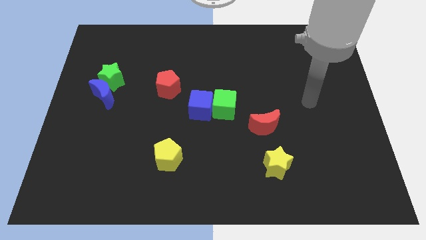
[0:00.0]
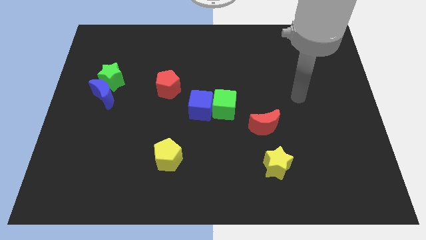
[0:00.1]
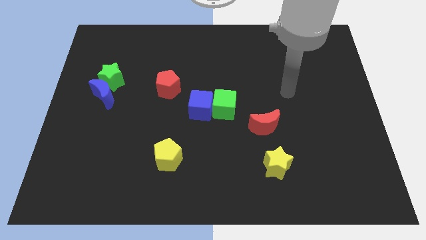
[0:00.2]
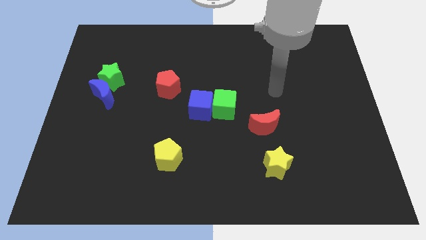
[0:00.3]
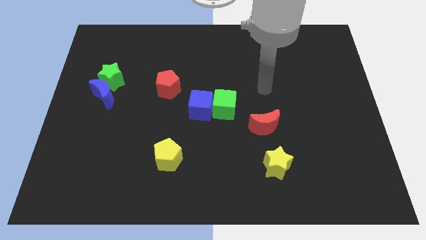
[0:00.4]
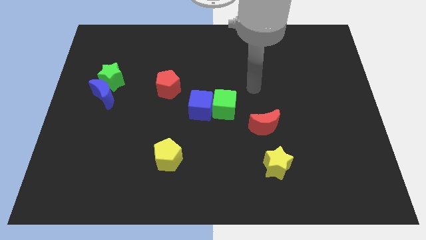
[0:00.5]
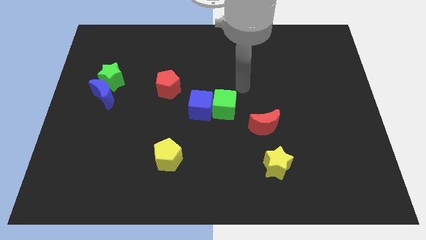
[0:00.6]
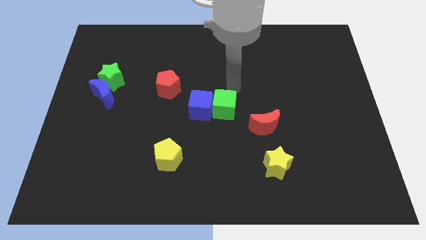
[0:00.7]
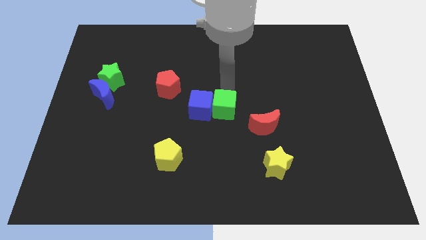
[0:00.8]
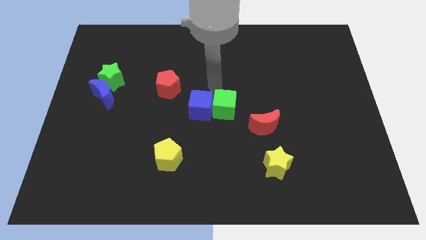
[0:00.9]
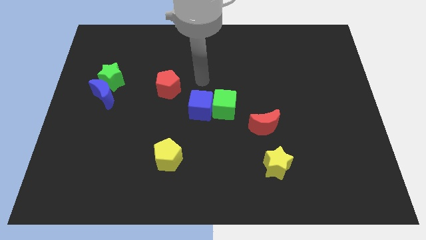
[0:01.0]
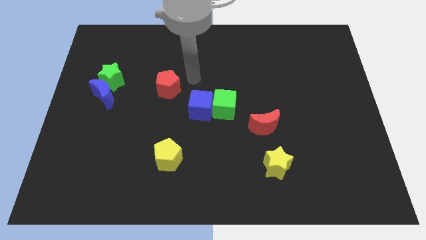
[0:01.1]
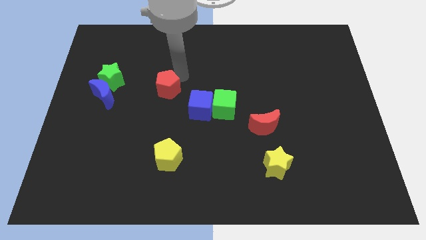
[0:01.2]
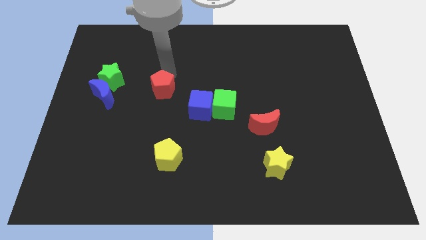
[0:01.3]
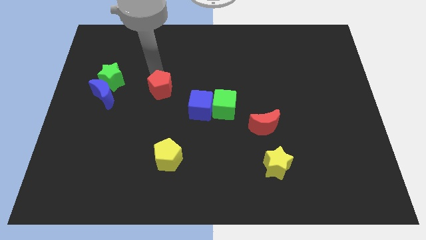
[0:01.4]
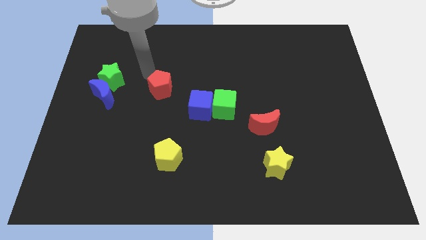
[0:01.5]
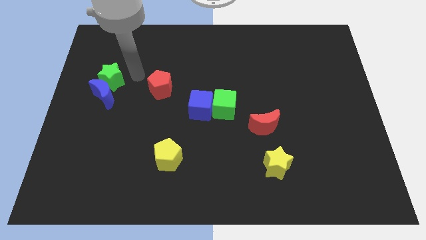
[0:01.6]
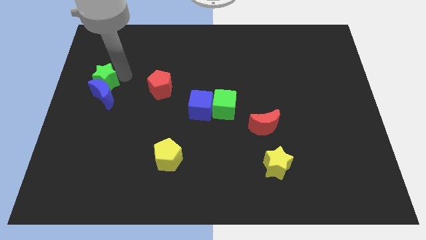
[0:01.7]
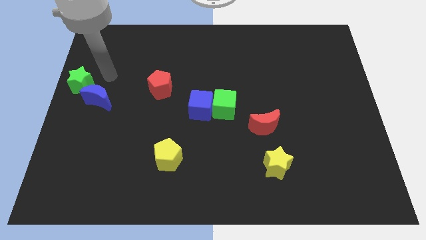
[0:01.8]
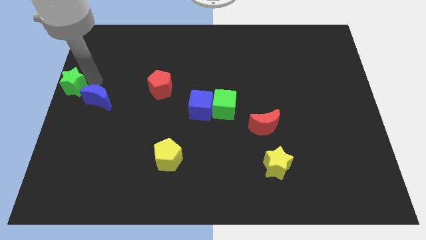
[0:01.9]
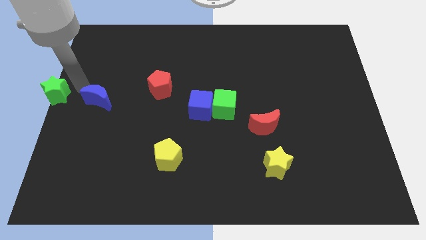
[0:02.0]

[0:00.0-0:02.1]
pull the blue moon apart from the green star

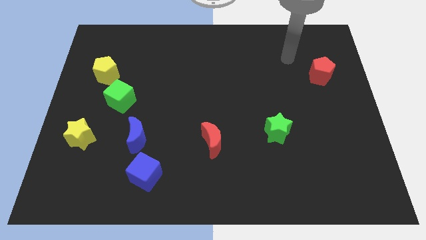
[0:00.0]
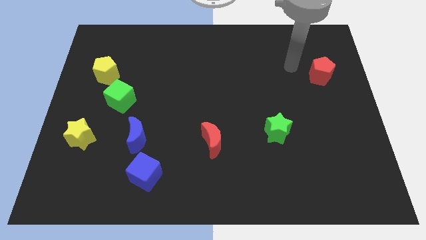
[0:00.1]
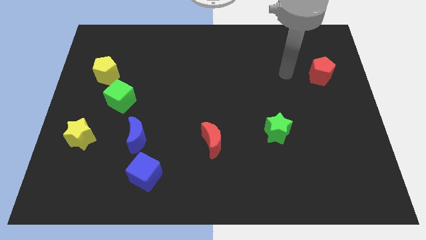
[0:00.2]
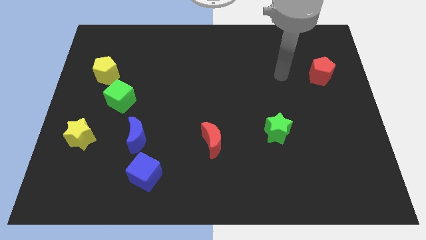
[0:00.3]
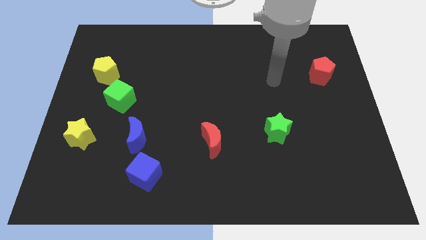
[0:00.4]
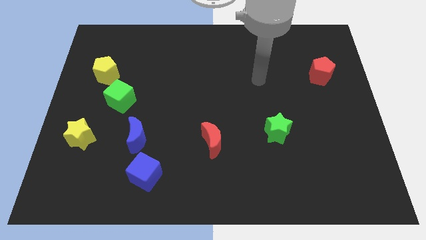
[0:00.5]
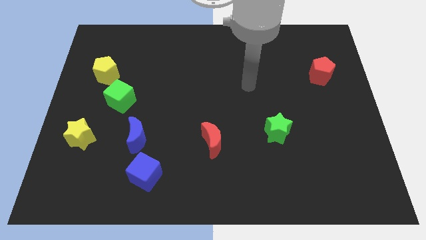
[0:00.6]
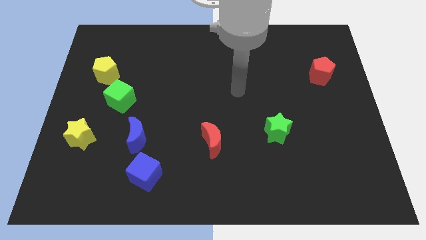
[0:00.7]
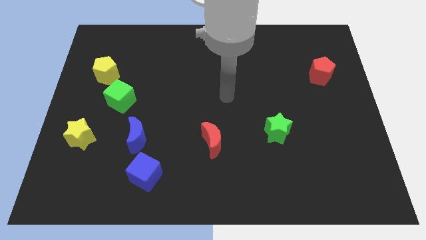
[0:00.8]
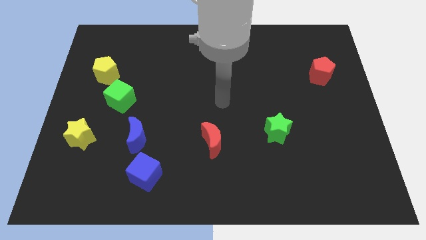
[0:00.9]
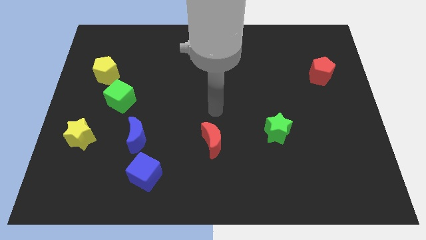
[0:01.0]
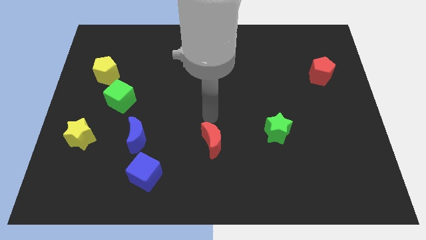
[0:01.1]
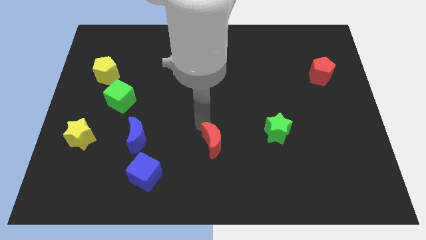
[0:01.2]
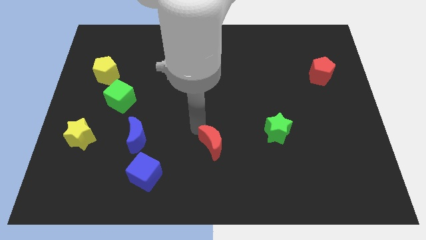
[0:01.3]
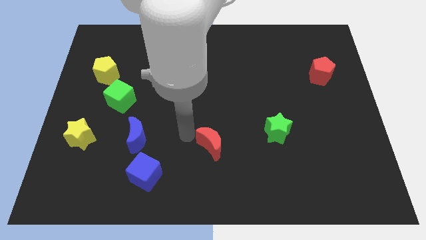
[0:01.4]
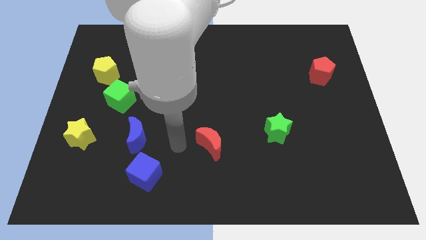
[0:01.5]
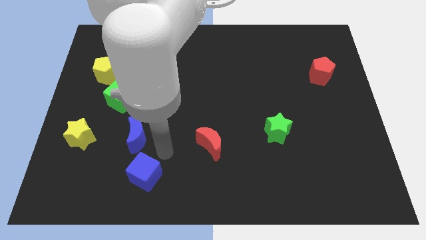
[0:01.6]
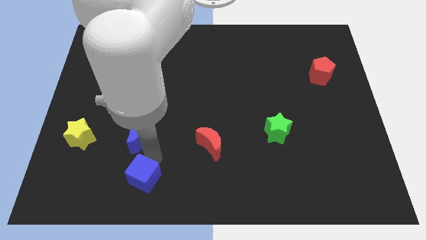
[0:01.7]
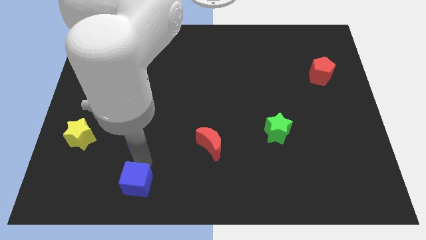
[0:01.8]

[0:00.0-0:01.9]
move the blue moon away from the blue cube

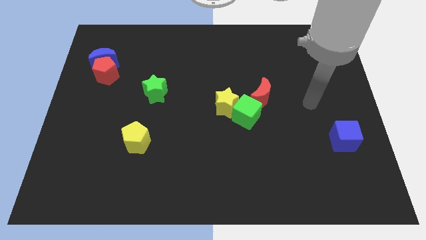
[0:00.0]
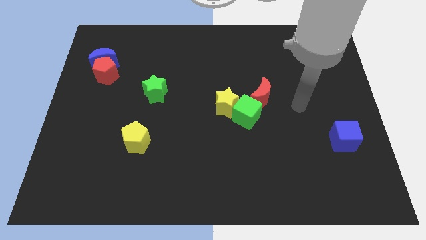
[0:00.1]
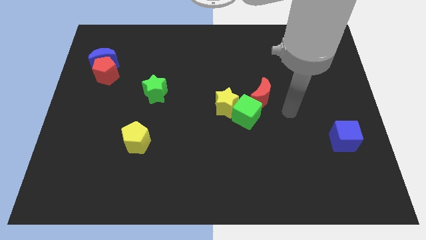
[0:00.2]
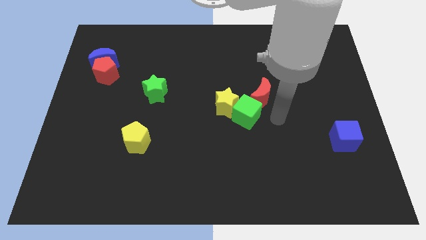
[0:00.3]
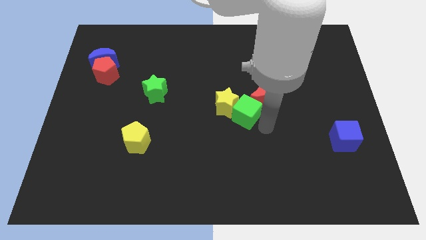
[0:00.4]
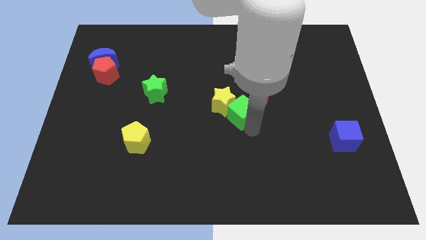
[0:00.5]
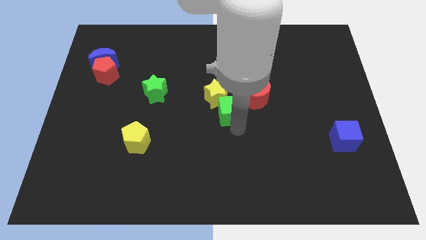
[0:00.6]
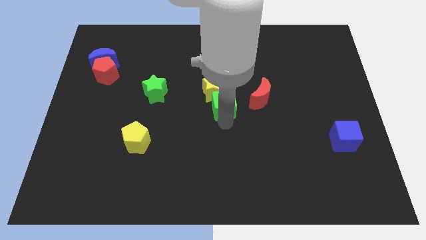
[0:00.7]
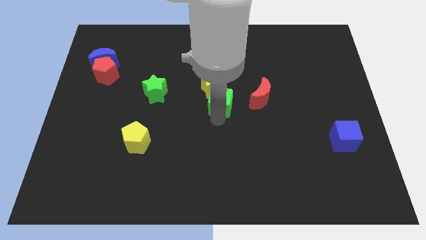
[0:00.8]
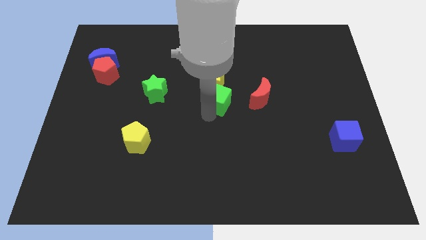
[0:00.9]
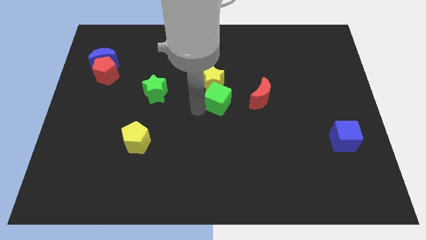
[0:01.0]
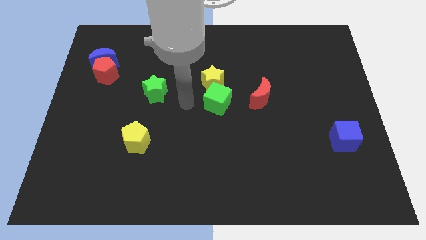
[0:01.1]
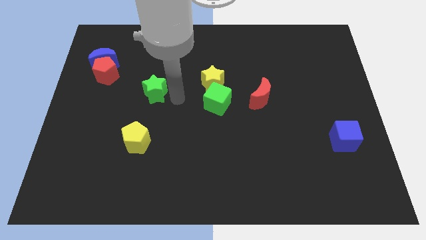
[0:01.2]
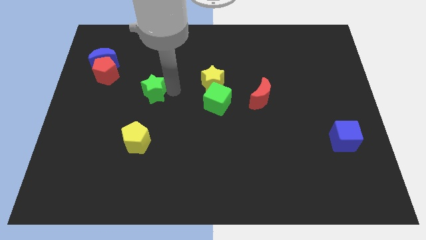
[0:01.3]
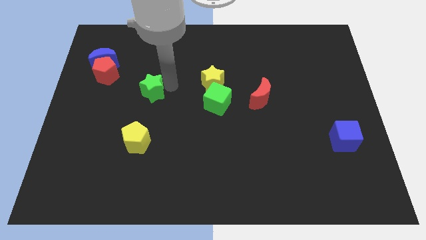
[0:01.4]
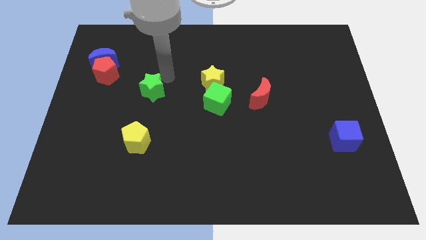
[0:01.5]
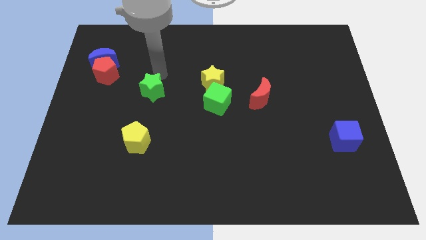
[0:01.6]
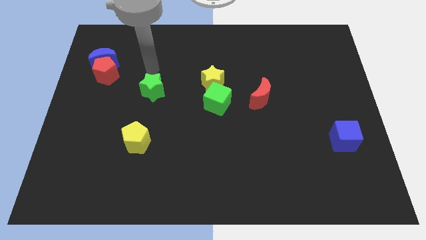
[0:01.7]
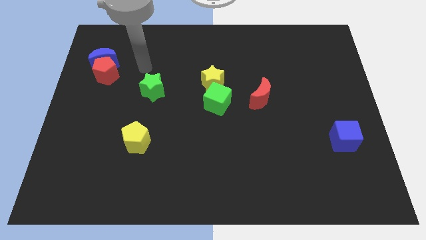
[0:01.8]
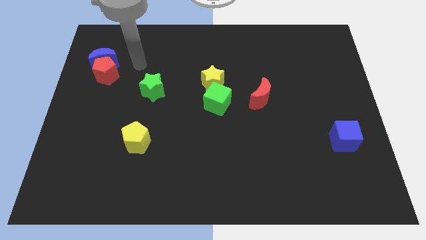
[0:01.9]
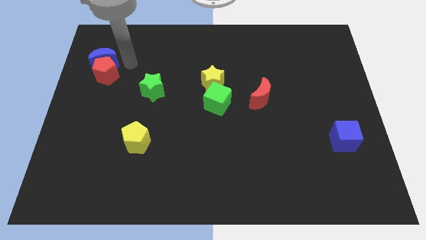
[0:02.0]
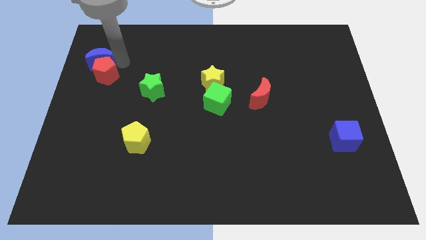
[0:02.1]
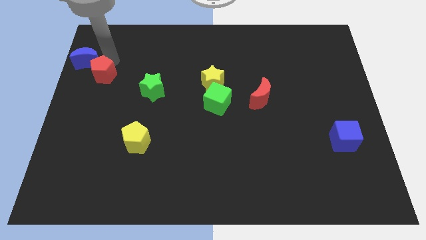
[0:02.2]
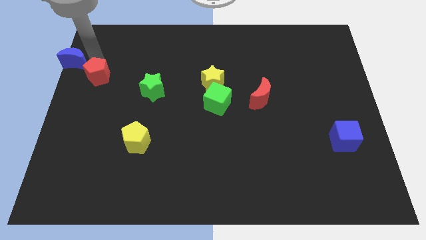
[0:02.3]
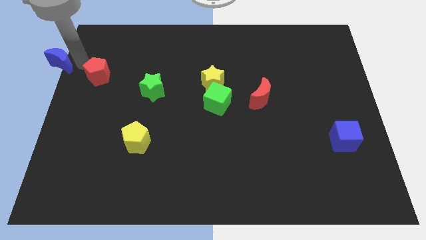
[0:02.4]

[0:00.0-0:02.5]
separate the red pentagon from the blue moon

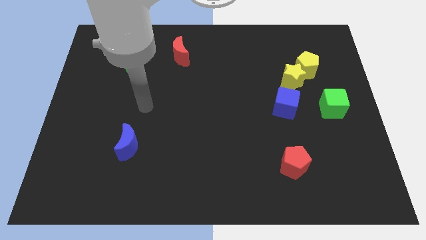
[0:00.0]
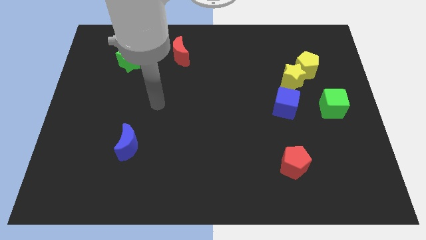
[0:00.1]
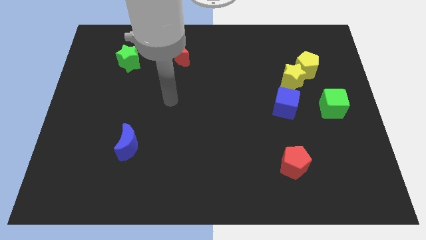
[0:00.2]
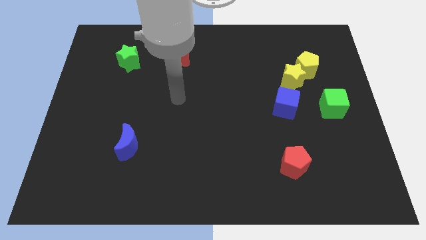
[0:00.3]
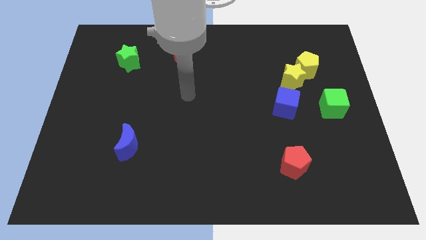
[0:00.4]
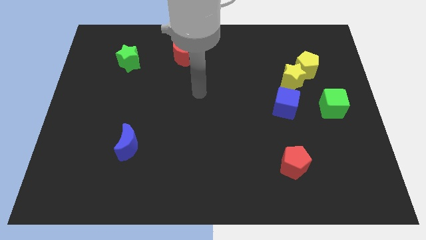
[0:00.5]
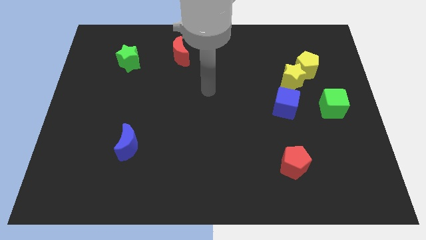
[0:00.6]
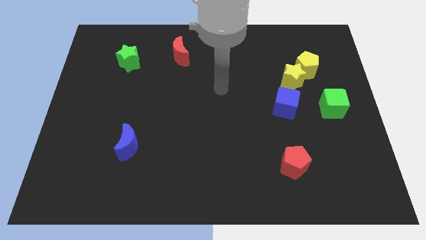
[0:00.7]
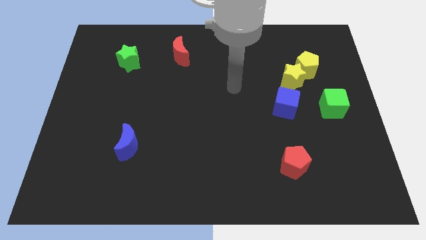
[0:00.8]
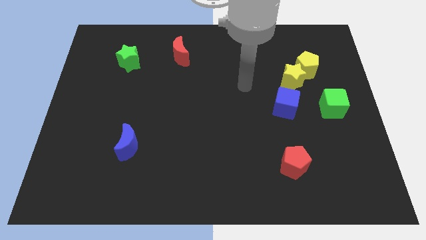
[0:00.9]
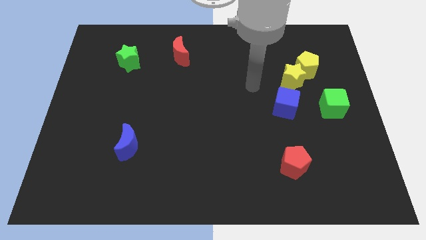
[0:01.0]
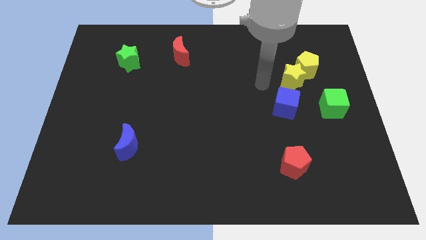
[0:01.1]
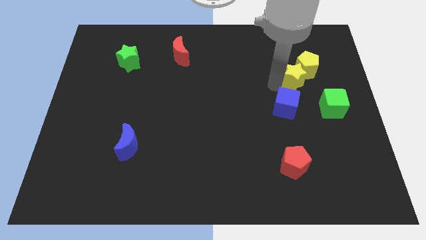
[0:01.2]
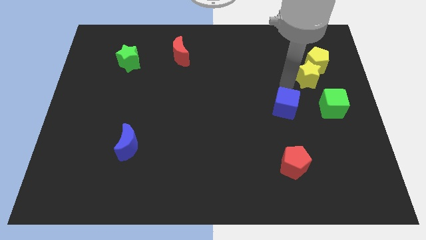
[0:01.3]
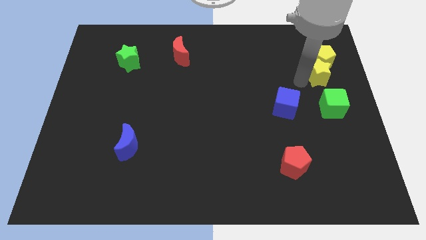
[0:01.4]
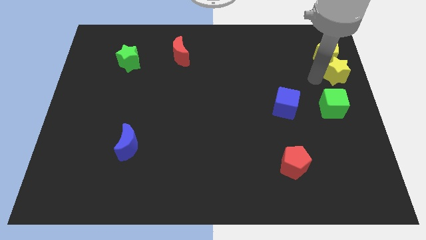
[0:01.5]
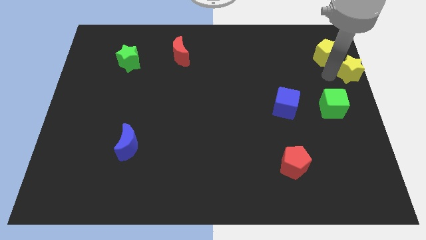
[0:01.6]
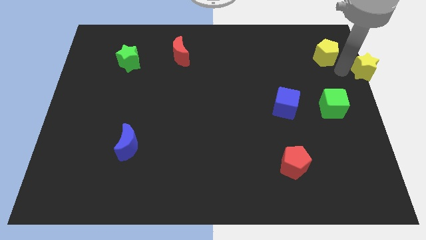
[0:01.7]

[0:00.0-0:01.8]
move the yellow pentagon away from the yellow star

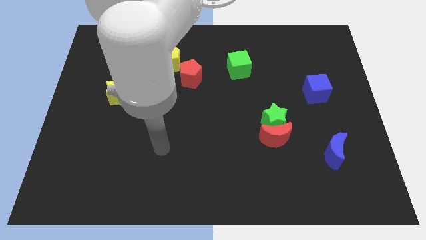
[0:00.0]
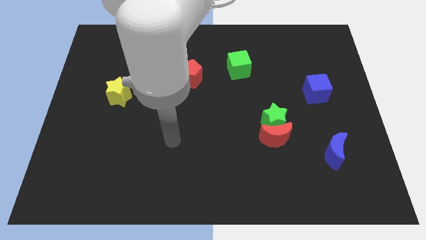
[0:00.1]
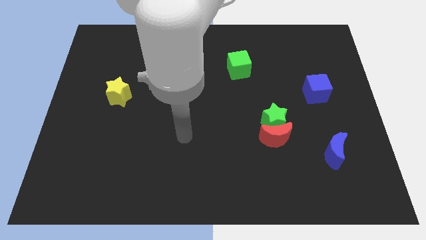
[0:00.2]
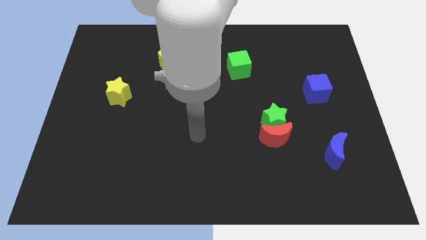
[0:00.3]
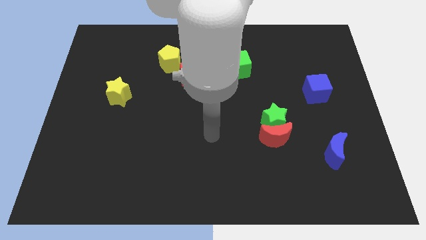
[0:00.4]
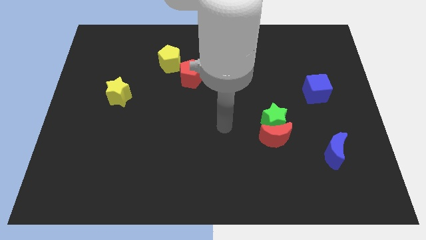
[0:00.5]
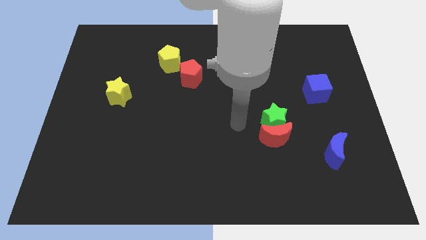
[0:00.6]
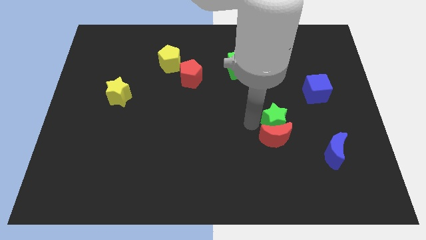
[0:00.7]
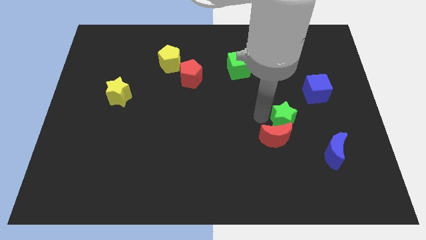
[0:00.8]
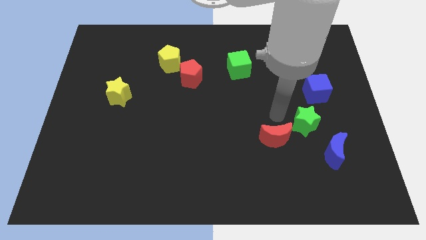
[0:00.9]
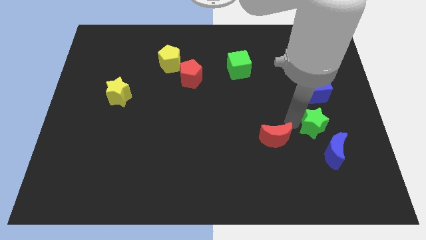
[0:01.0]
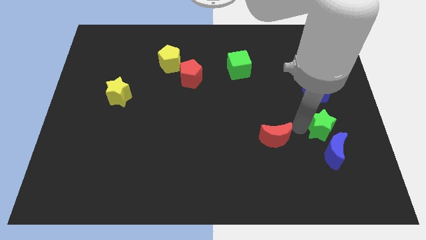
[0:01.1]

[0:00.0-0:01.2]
separate the red moon from the green star
